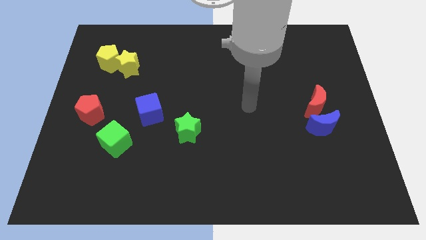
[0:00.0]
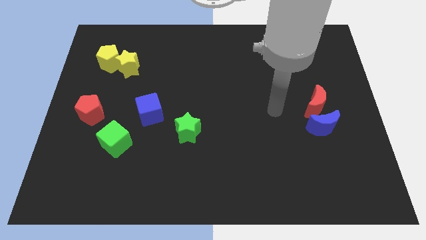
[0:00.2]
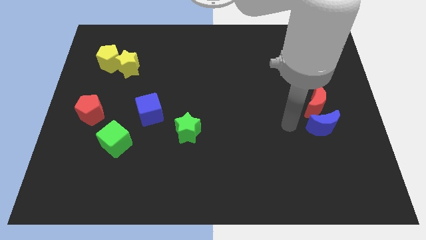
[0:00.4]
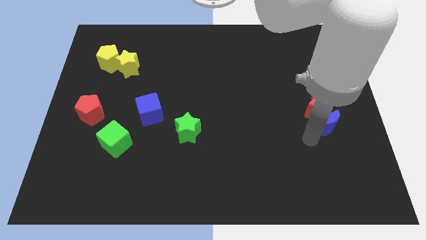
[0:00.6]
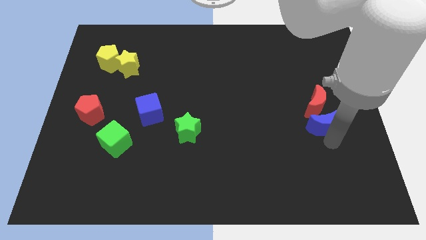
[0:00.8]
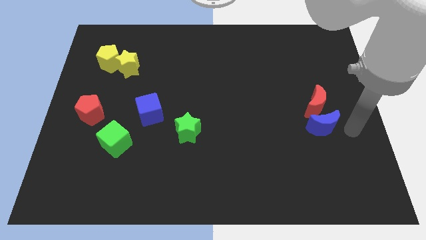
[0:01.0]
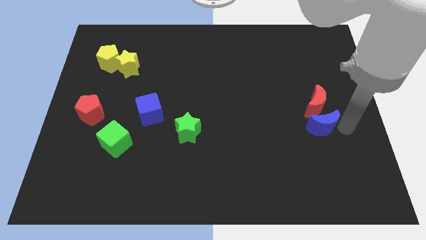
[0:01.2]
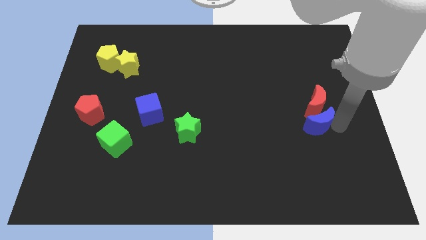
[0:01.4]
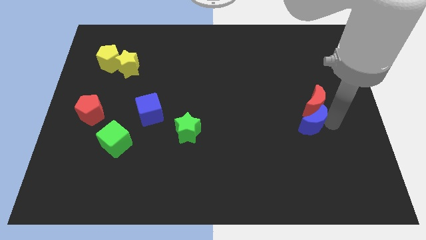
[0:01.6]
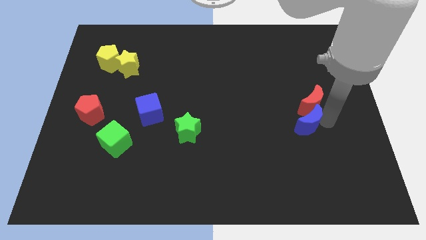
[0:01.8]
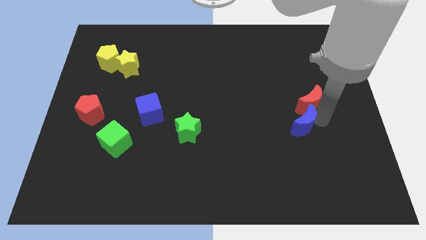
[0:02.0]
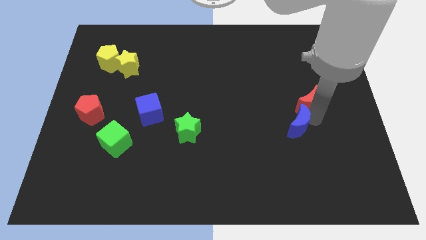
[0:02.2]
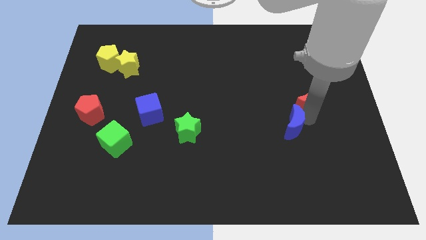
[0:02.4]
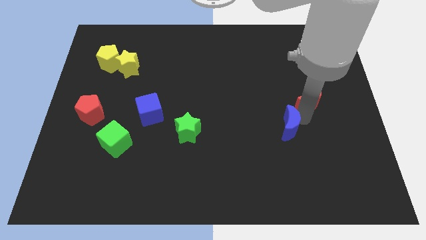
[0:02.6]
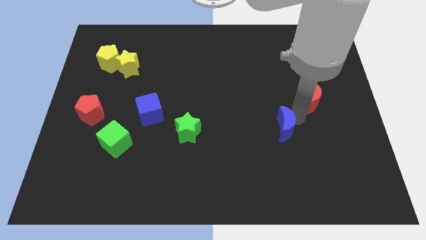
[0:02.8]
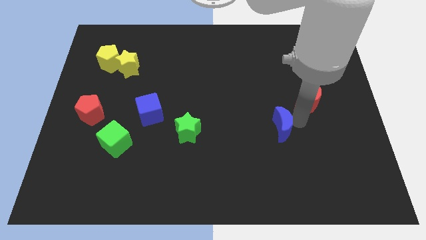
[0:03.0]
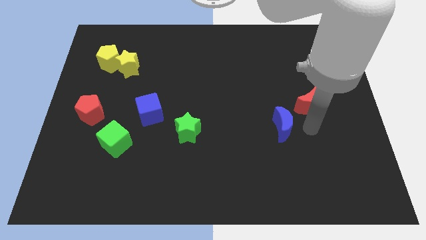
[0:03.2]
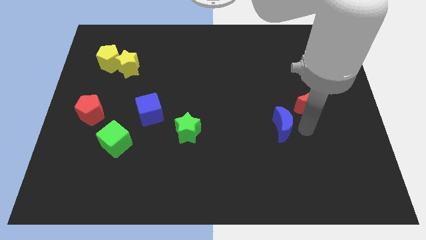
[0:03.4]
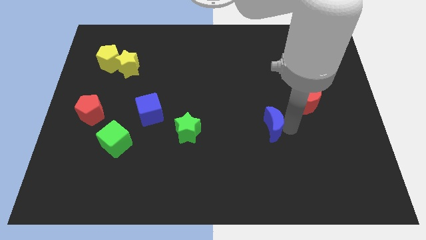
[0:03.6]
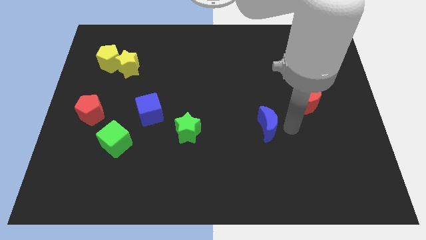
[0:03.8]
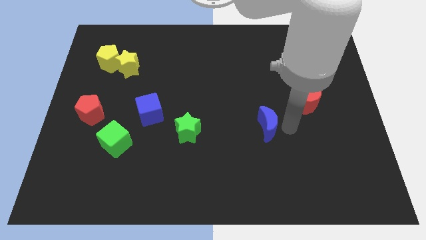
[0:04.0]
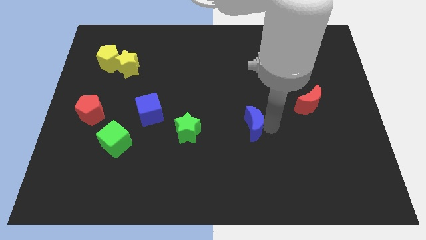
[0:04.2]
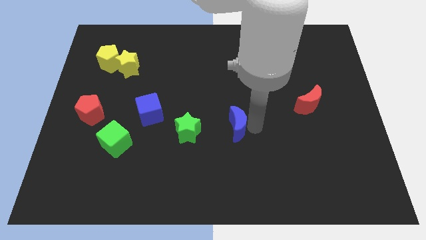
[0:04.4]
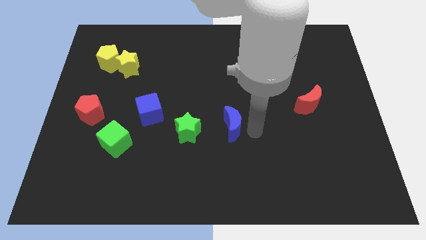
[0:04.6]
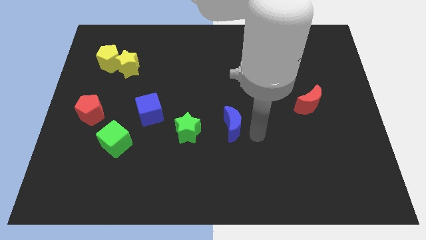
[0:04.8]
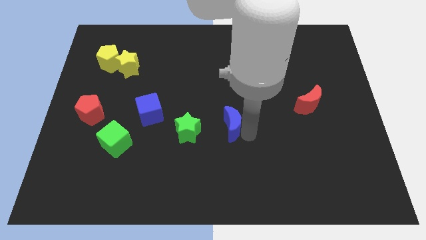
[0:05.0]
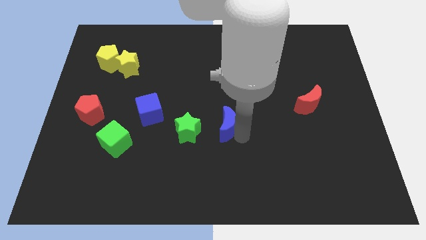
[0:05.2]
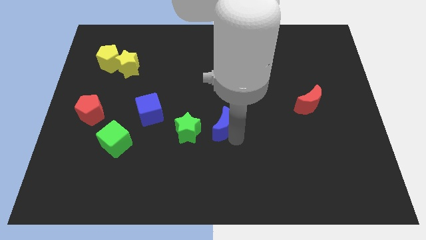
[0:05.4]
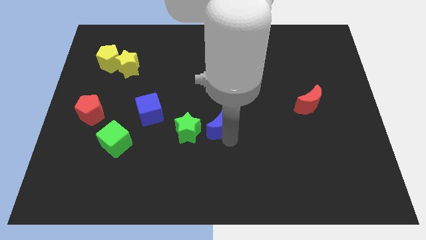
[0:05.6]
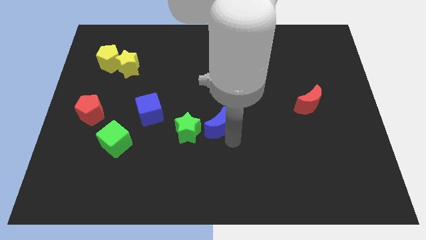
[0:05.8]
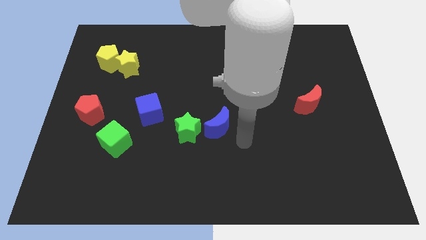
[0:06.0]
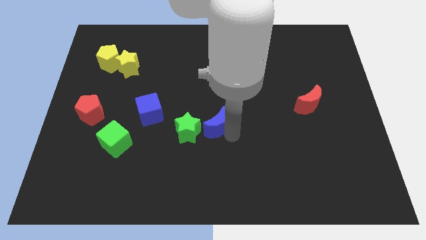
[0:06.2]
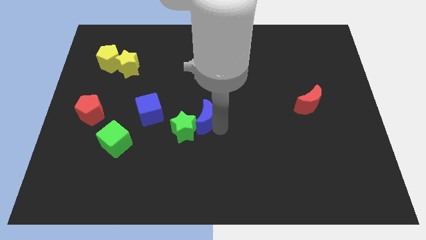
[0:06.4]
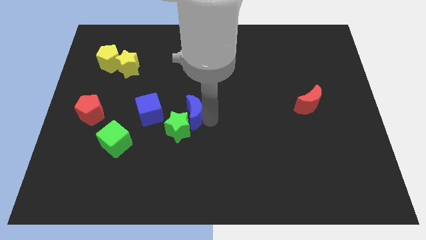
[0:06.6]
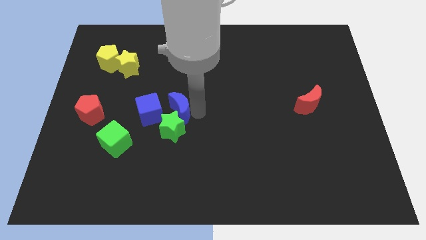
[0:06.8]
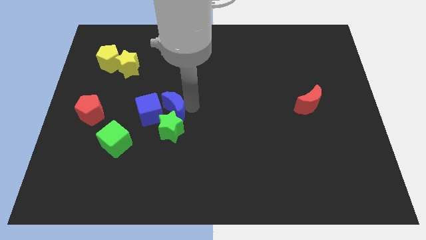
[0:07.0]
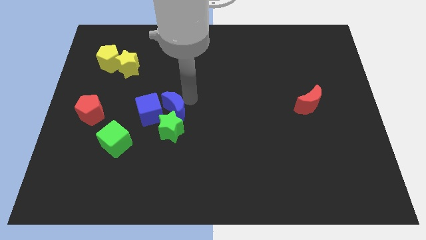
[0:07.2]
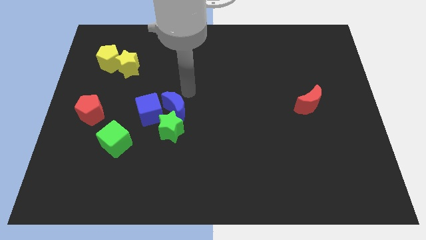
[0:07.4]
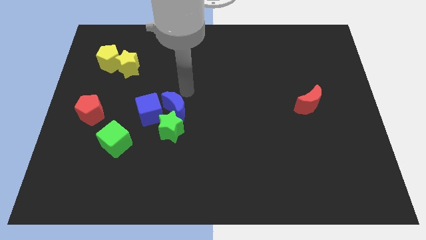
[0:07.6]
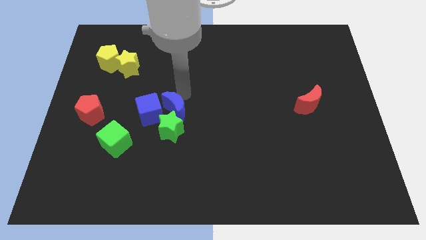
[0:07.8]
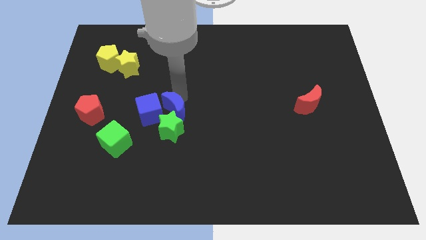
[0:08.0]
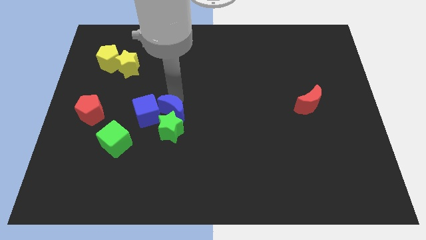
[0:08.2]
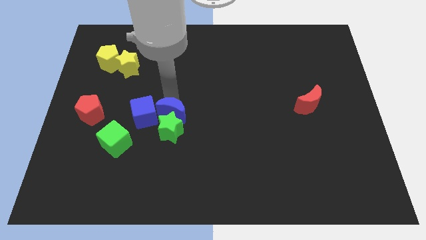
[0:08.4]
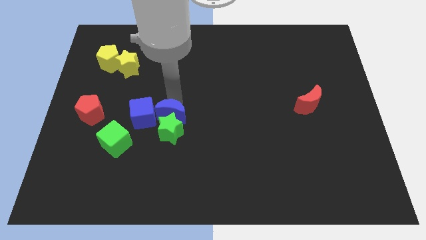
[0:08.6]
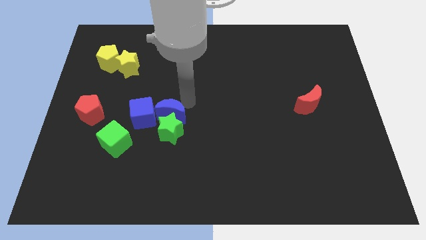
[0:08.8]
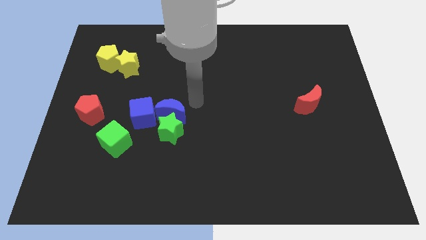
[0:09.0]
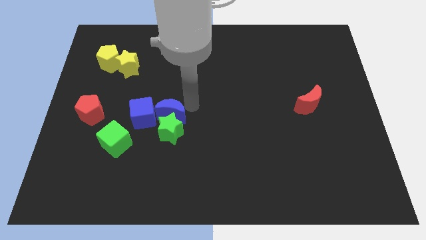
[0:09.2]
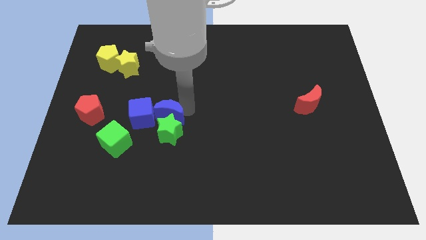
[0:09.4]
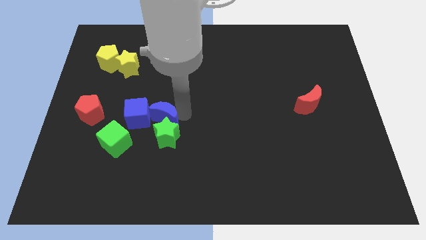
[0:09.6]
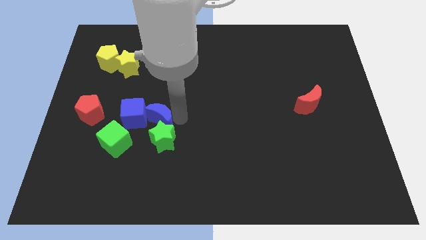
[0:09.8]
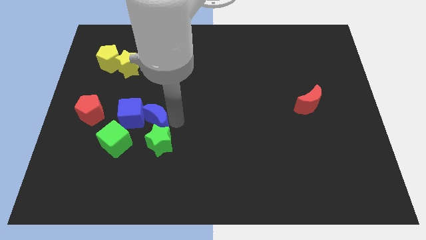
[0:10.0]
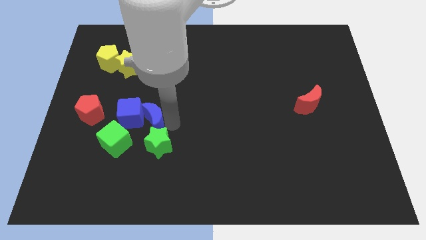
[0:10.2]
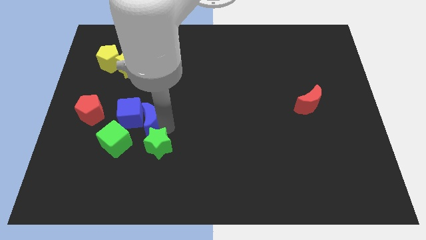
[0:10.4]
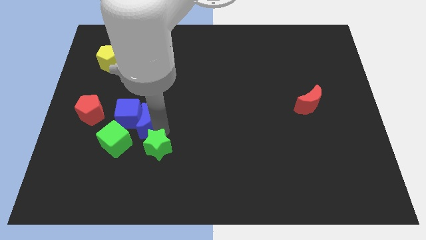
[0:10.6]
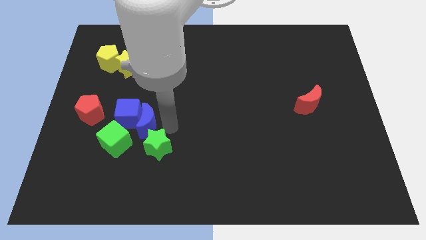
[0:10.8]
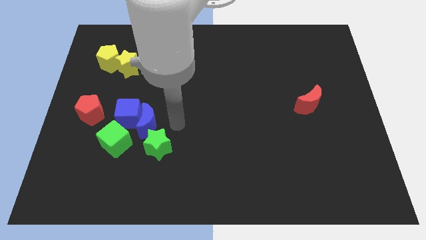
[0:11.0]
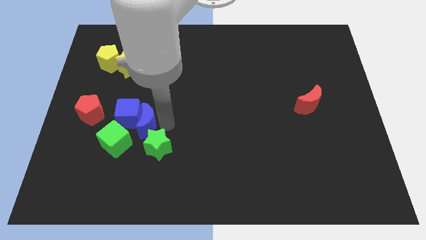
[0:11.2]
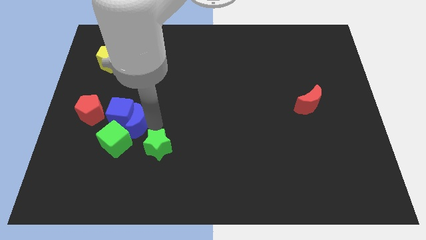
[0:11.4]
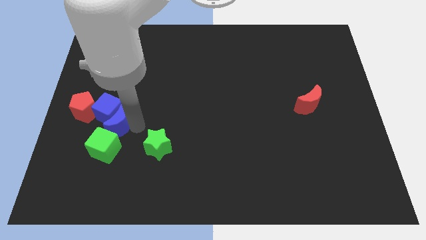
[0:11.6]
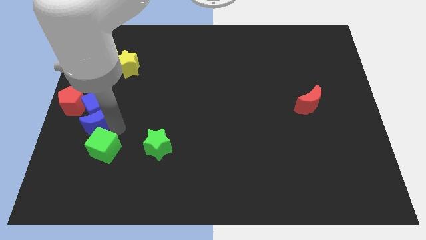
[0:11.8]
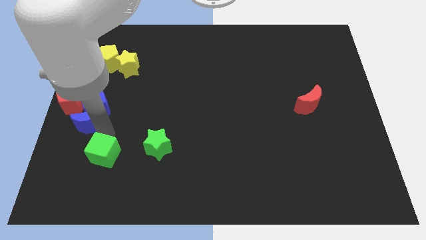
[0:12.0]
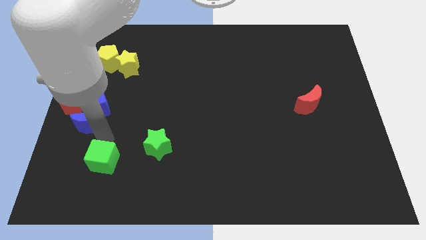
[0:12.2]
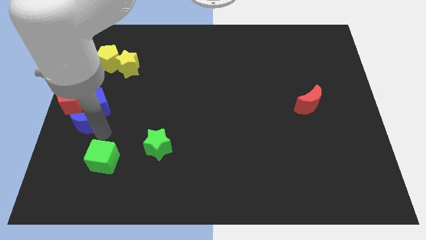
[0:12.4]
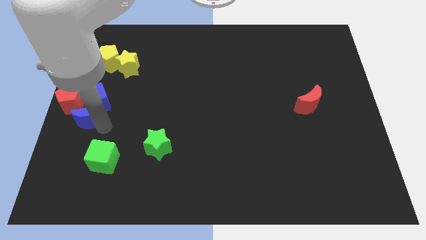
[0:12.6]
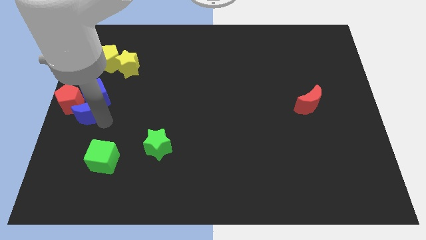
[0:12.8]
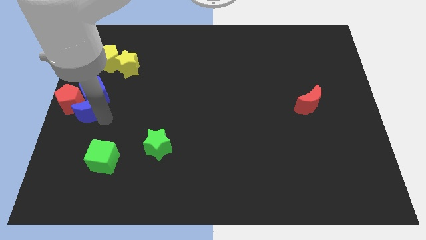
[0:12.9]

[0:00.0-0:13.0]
slide the blue moon next to the red pentagon

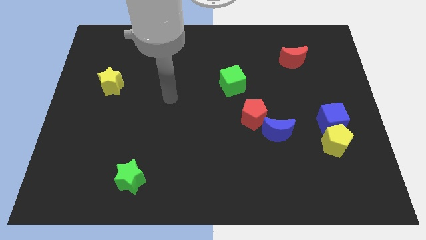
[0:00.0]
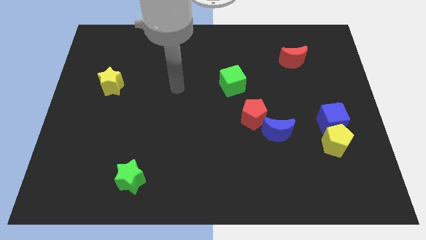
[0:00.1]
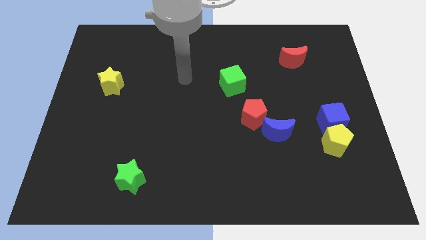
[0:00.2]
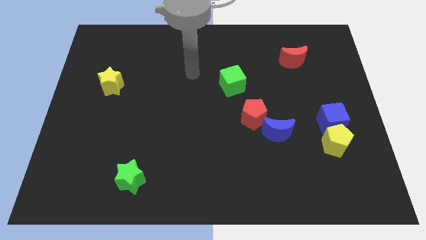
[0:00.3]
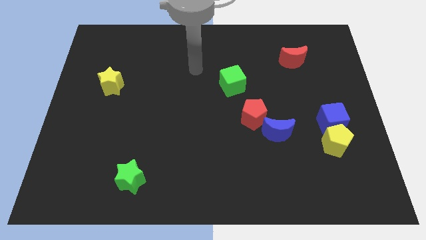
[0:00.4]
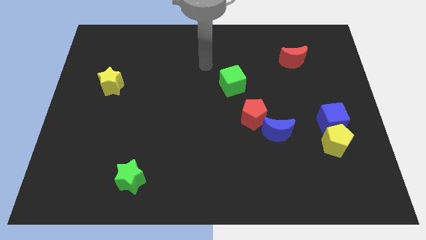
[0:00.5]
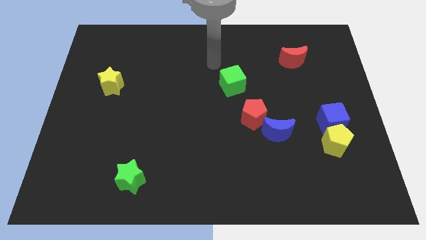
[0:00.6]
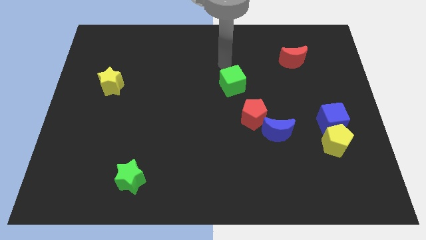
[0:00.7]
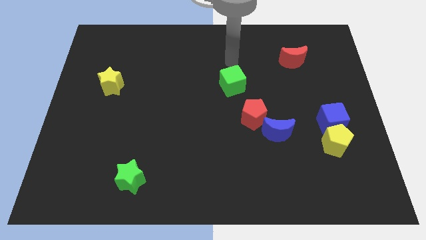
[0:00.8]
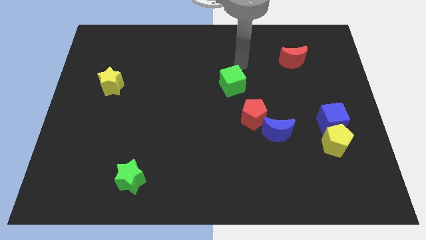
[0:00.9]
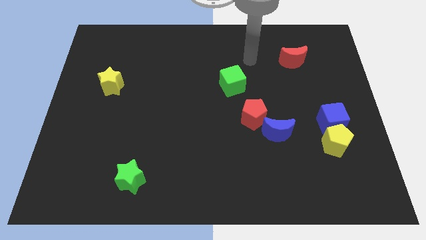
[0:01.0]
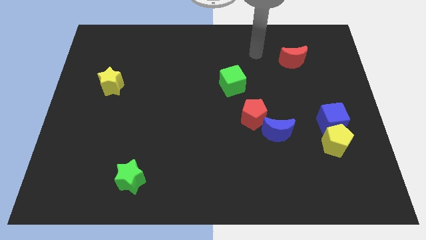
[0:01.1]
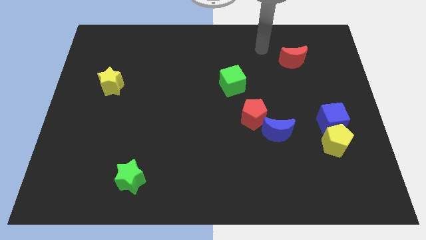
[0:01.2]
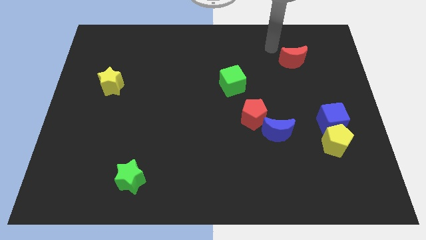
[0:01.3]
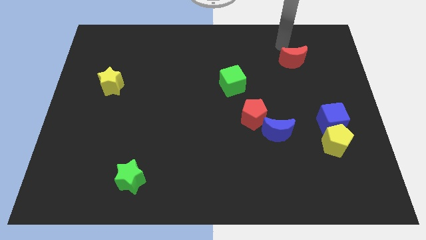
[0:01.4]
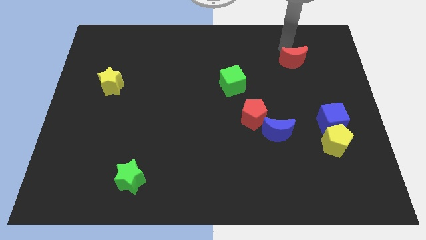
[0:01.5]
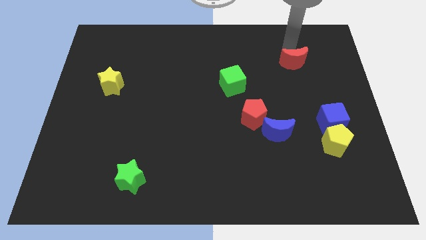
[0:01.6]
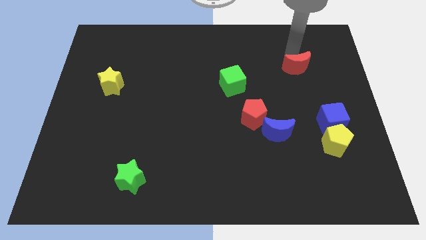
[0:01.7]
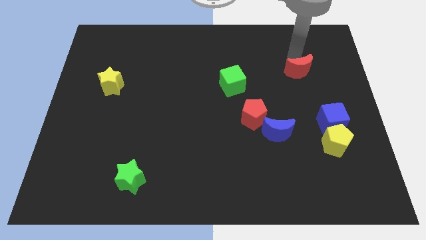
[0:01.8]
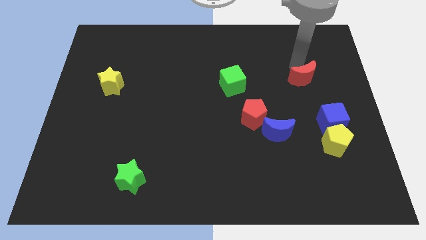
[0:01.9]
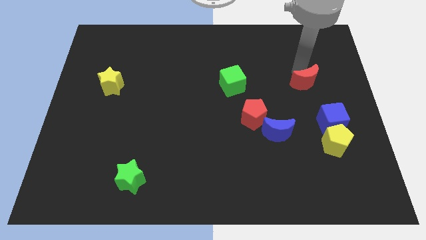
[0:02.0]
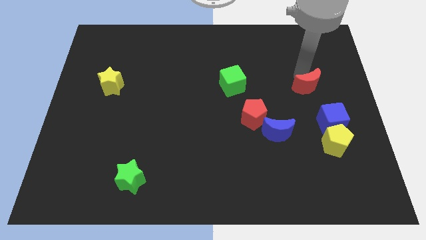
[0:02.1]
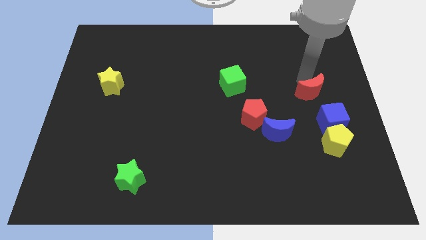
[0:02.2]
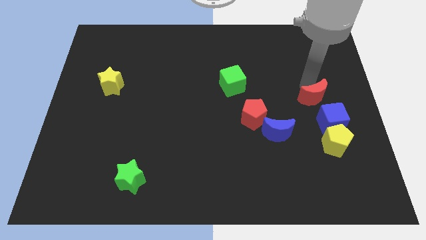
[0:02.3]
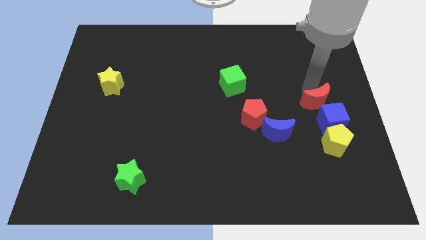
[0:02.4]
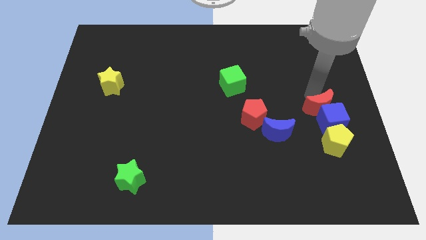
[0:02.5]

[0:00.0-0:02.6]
put the red moon towards the blue cube
